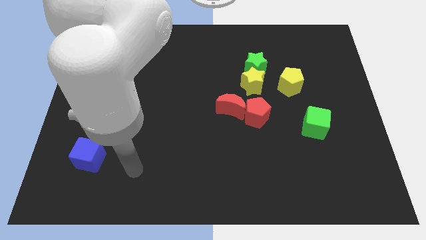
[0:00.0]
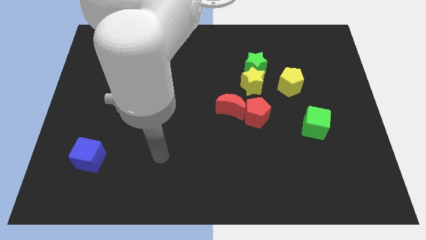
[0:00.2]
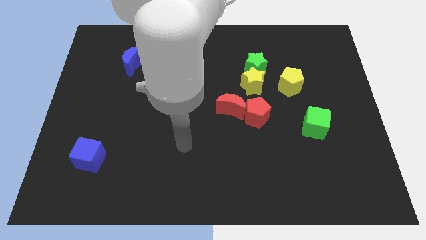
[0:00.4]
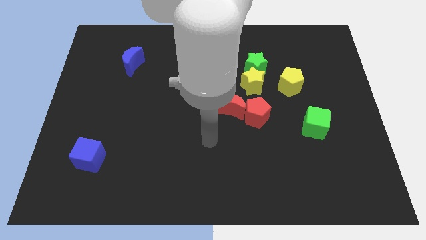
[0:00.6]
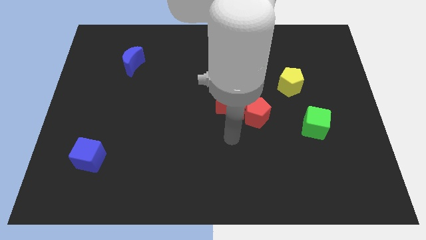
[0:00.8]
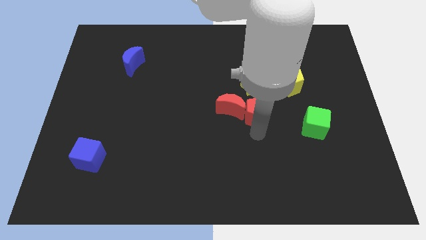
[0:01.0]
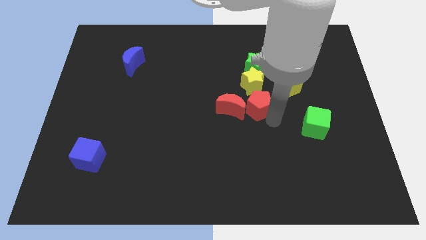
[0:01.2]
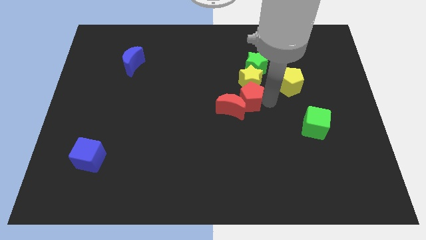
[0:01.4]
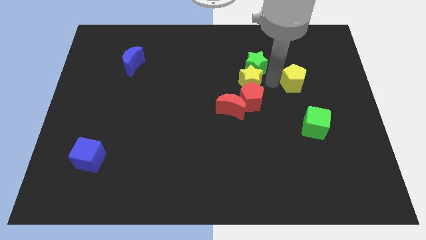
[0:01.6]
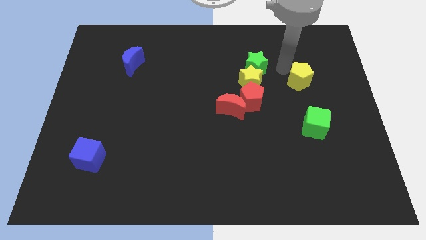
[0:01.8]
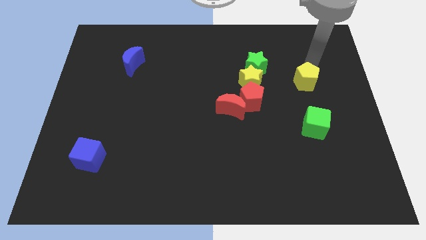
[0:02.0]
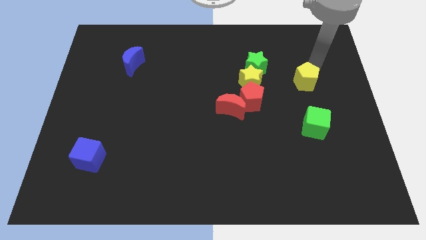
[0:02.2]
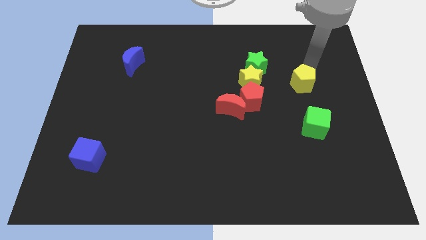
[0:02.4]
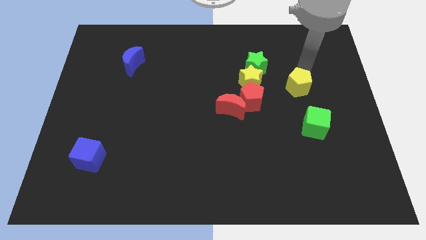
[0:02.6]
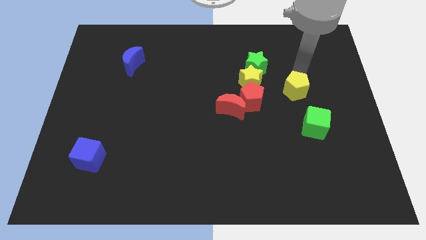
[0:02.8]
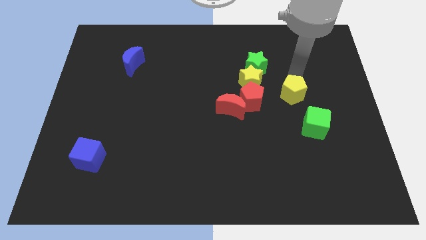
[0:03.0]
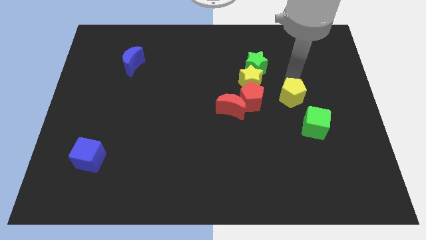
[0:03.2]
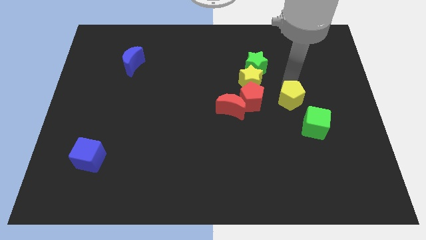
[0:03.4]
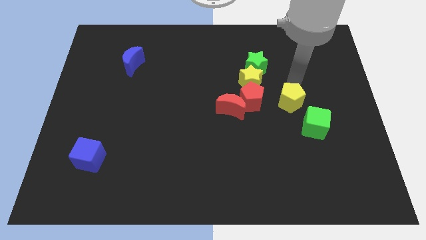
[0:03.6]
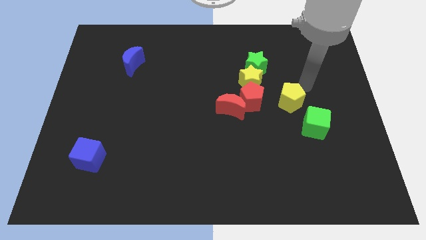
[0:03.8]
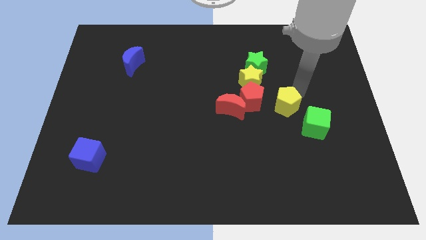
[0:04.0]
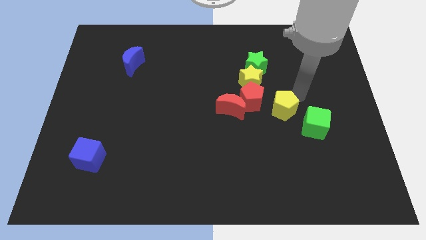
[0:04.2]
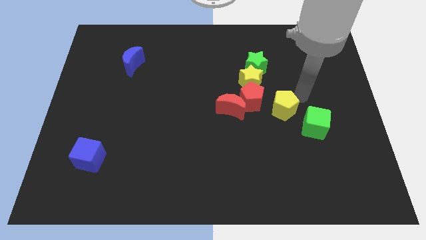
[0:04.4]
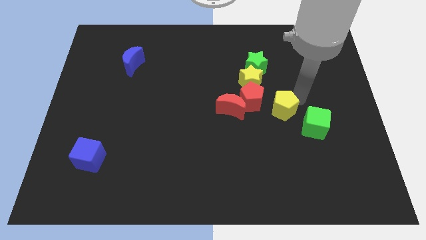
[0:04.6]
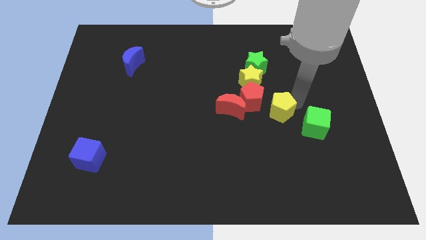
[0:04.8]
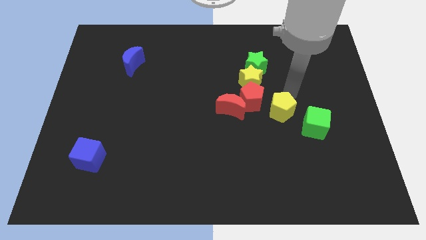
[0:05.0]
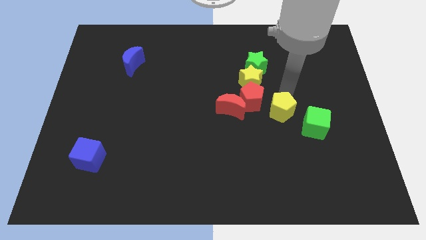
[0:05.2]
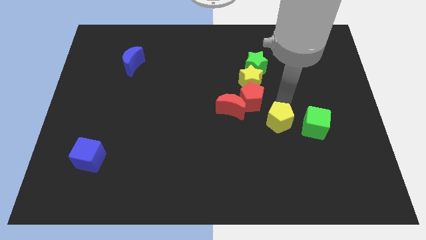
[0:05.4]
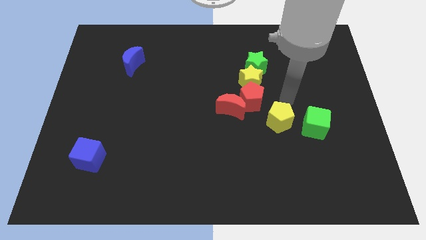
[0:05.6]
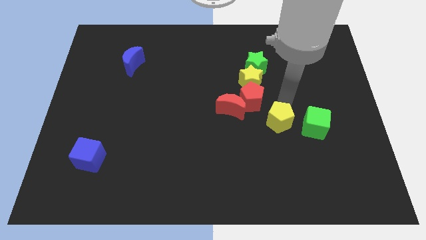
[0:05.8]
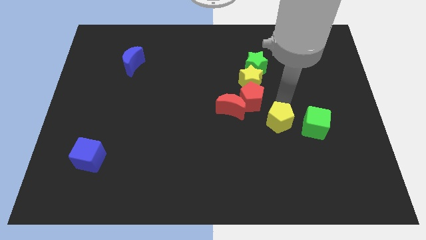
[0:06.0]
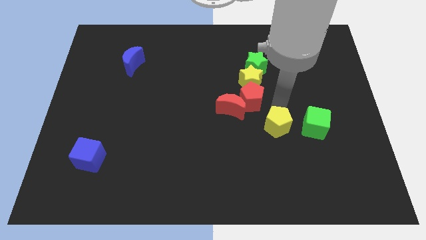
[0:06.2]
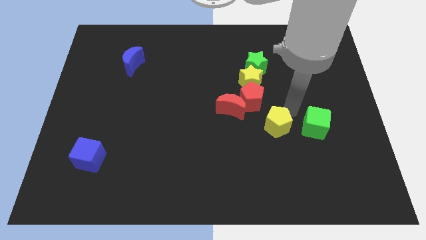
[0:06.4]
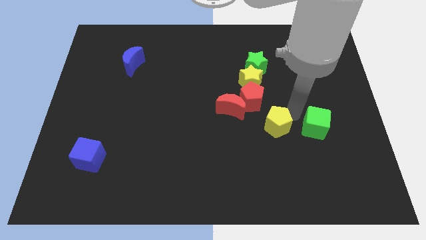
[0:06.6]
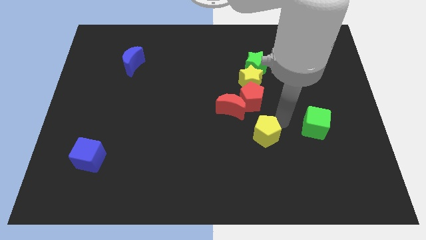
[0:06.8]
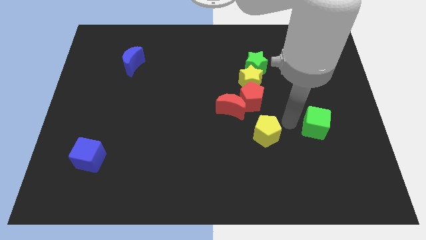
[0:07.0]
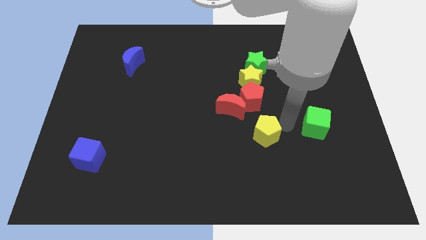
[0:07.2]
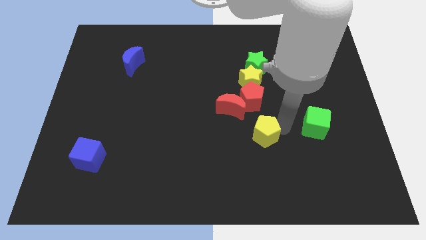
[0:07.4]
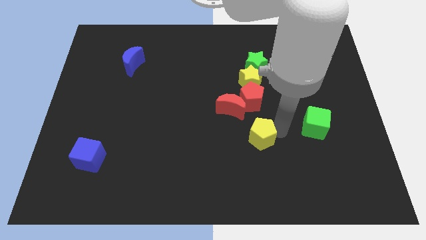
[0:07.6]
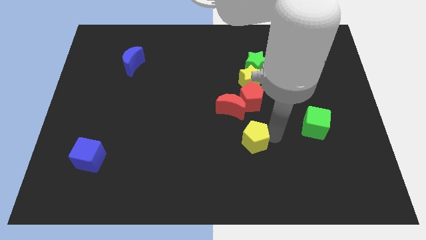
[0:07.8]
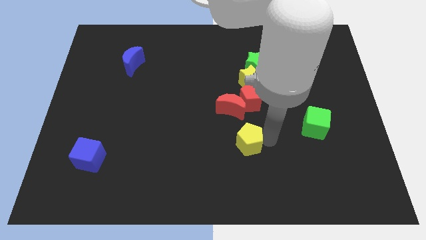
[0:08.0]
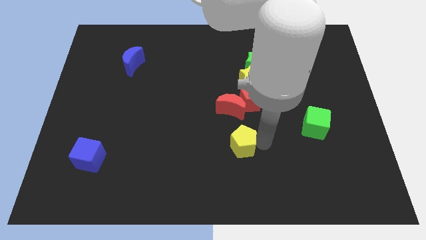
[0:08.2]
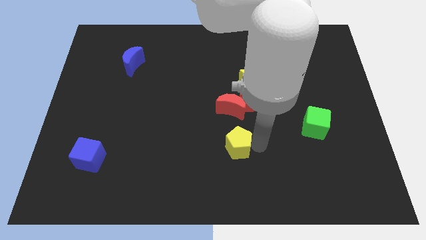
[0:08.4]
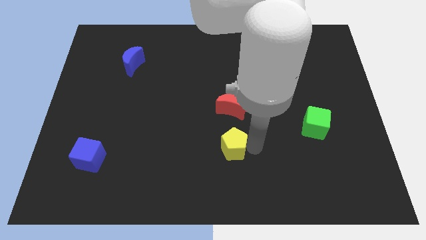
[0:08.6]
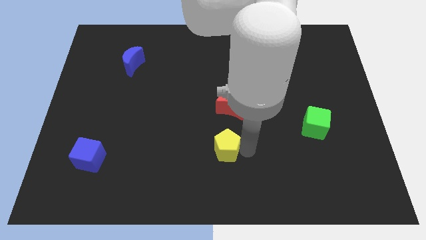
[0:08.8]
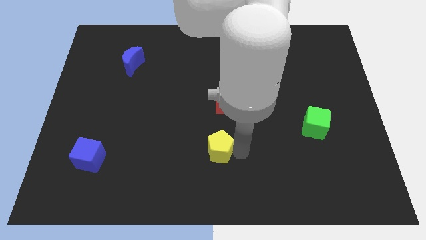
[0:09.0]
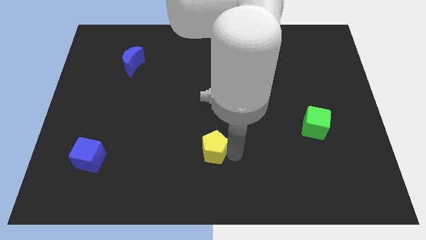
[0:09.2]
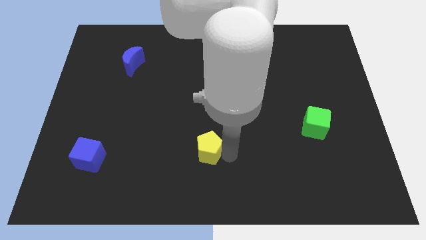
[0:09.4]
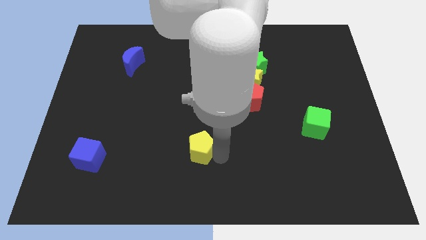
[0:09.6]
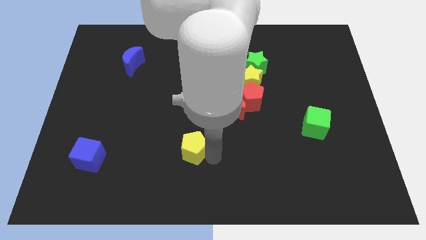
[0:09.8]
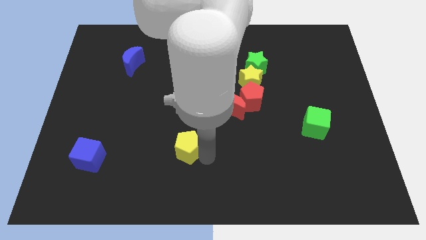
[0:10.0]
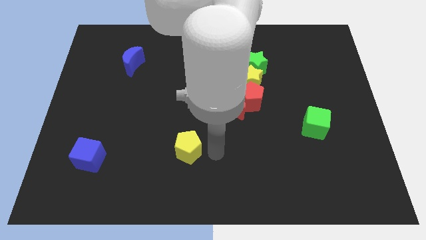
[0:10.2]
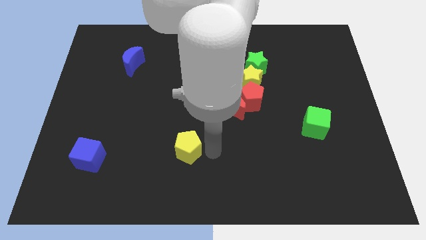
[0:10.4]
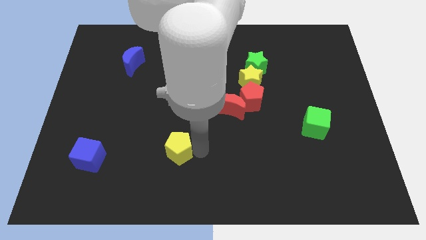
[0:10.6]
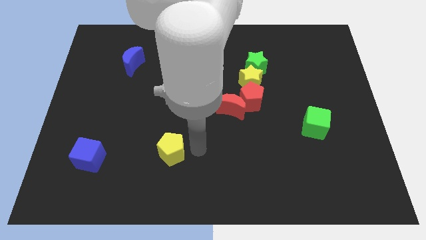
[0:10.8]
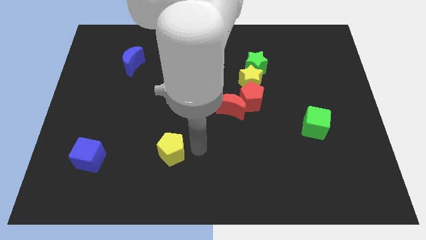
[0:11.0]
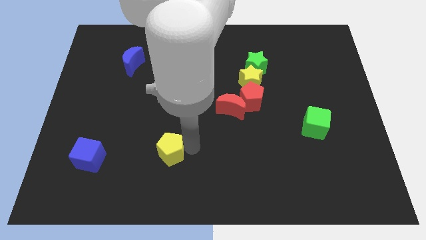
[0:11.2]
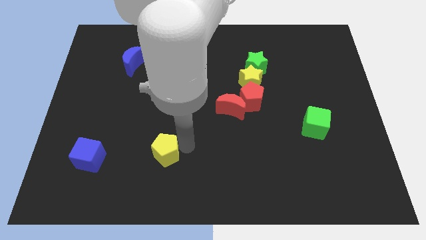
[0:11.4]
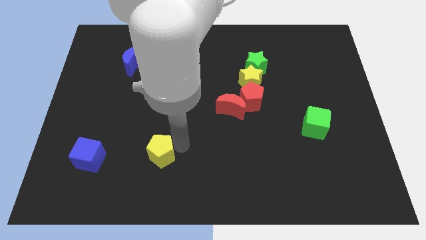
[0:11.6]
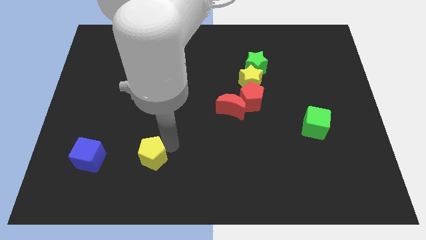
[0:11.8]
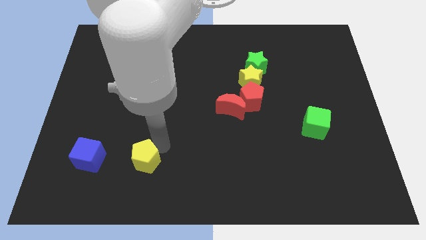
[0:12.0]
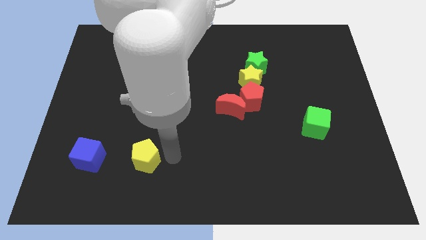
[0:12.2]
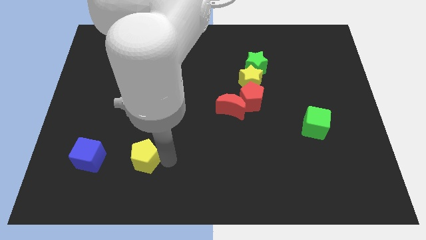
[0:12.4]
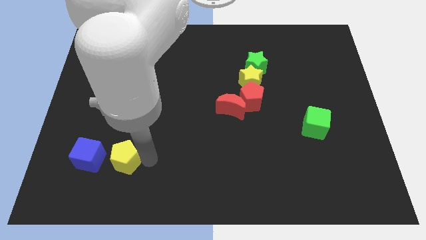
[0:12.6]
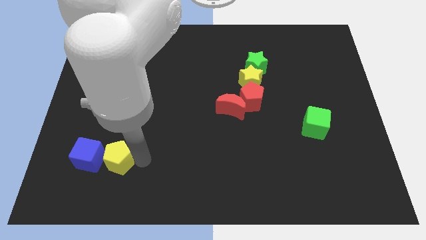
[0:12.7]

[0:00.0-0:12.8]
push the yellow pentagon next to the blue cube

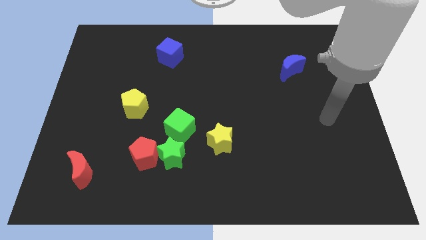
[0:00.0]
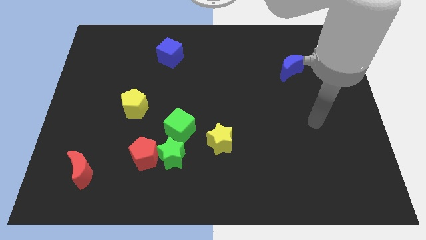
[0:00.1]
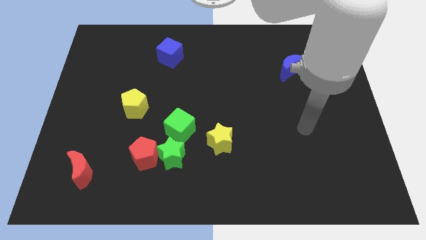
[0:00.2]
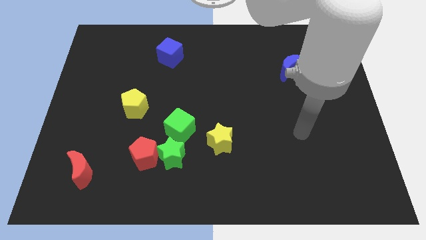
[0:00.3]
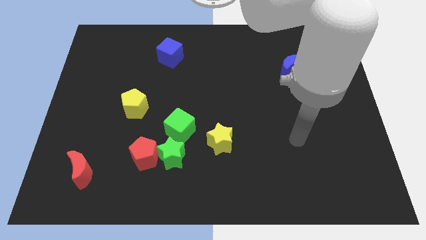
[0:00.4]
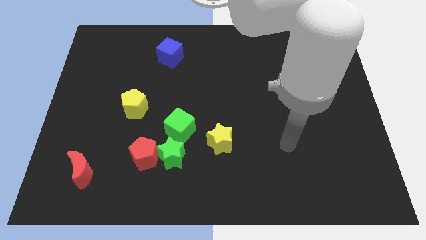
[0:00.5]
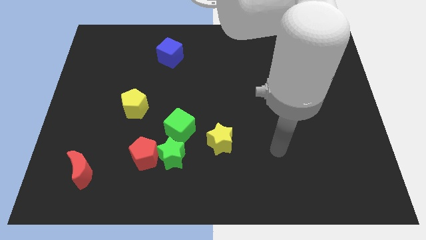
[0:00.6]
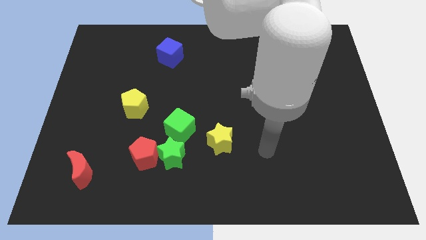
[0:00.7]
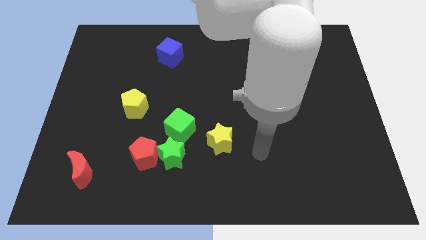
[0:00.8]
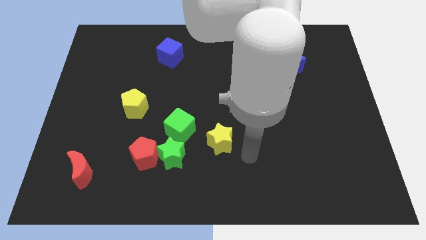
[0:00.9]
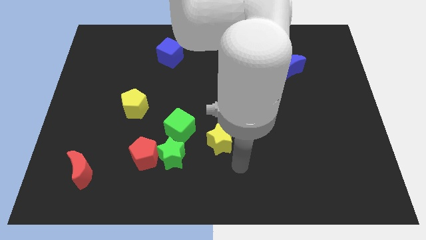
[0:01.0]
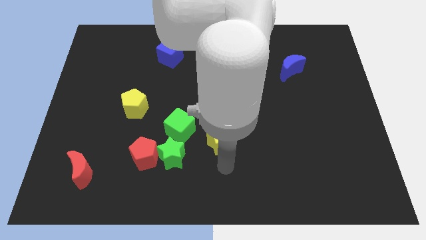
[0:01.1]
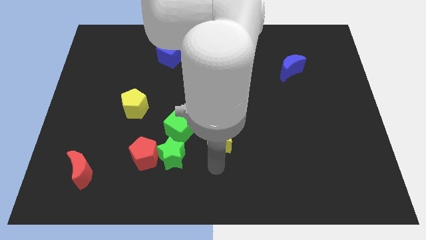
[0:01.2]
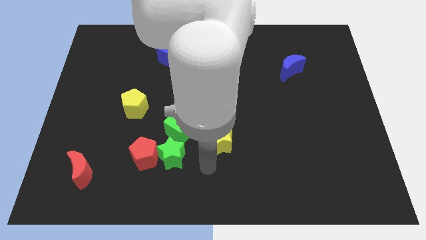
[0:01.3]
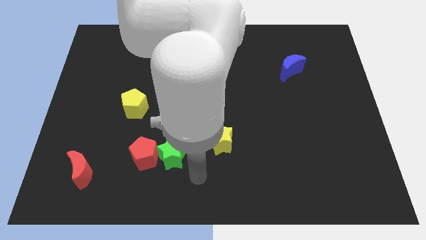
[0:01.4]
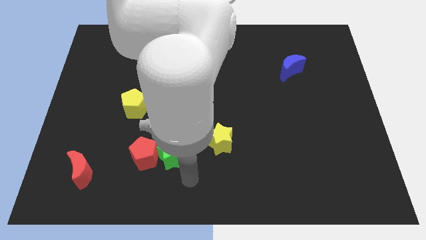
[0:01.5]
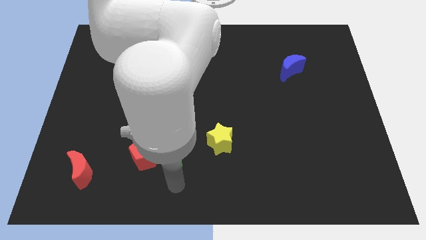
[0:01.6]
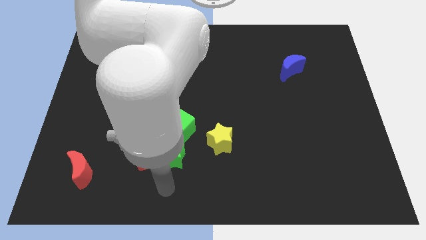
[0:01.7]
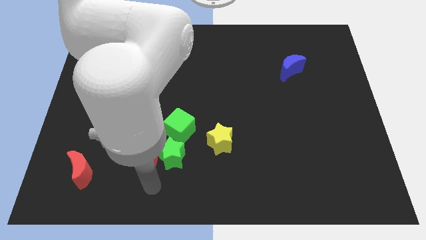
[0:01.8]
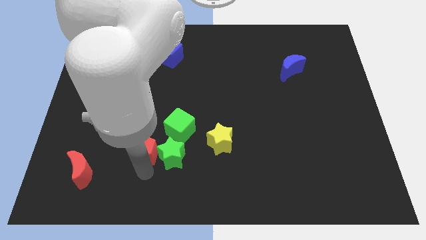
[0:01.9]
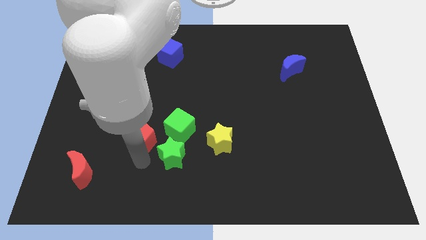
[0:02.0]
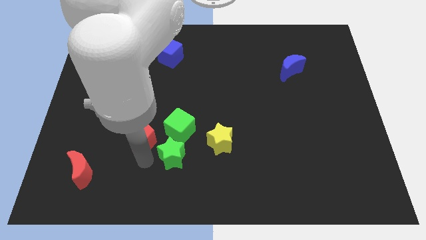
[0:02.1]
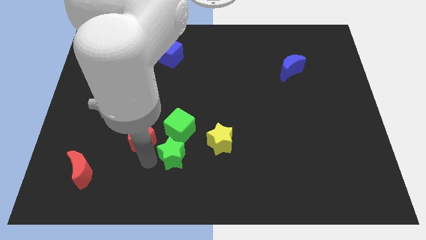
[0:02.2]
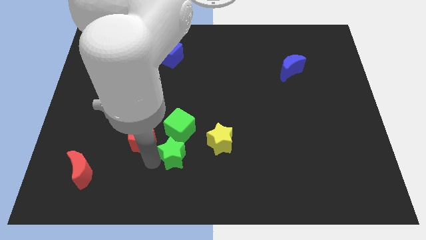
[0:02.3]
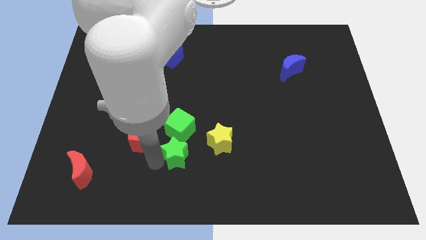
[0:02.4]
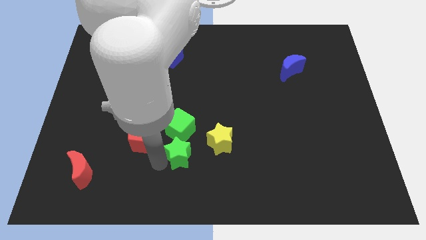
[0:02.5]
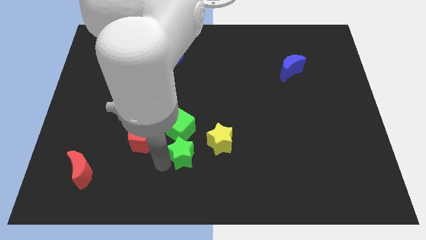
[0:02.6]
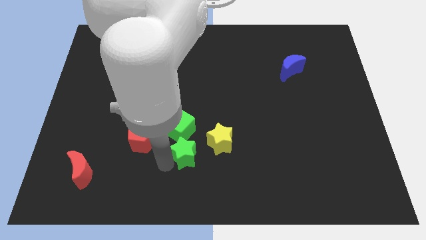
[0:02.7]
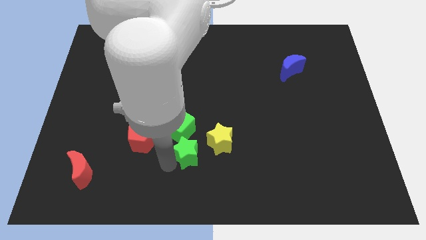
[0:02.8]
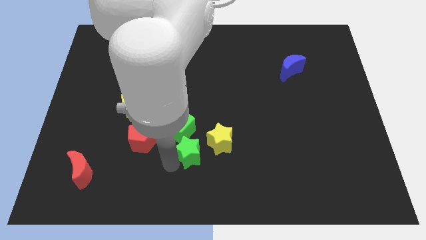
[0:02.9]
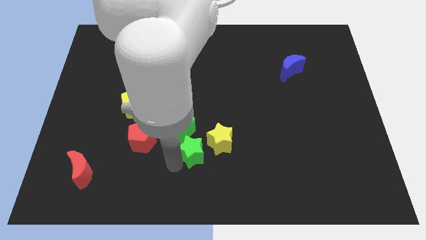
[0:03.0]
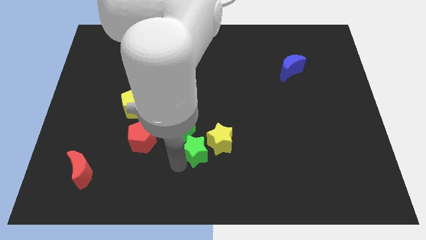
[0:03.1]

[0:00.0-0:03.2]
put the green star close to the yellow star
